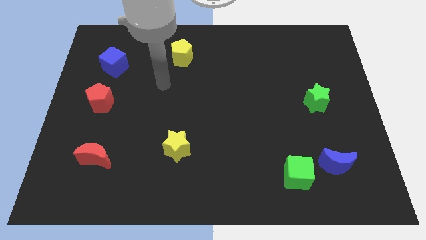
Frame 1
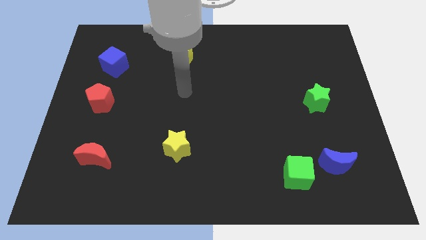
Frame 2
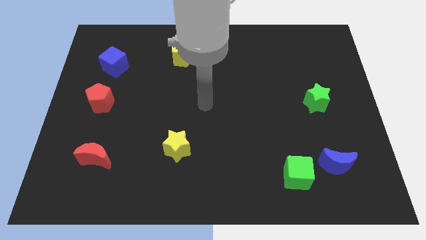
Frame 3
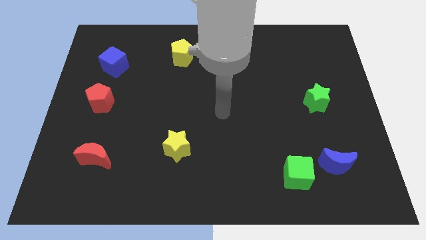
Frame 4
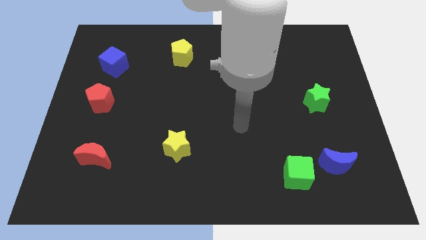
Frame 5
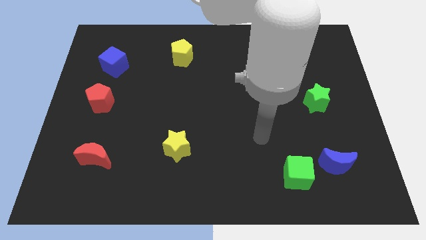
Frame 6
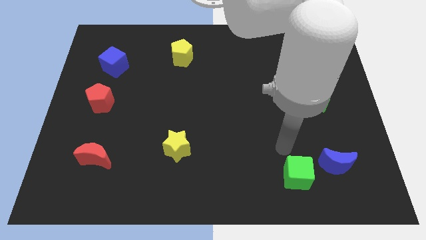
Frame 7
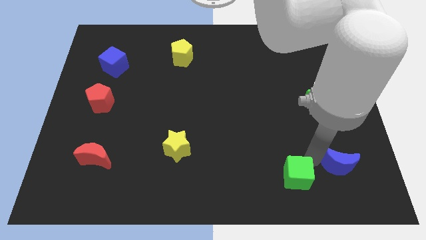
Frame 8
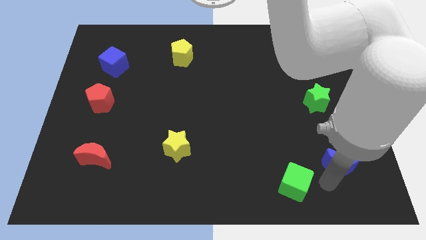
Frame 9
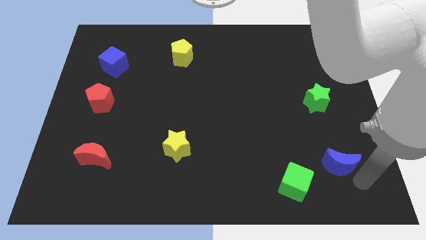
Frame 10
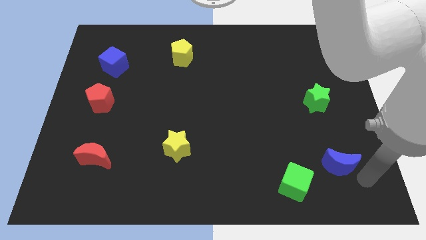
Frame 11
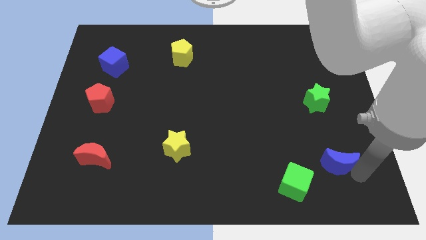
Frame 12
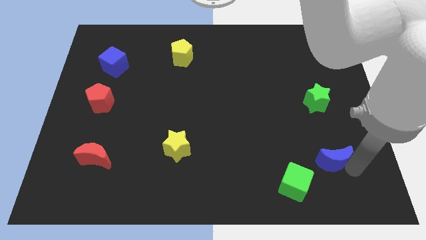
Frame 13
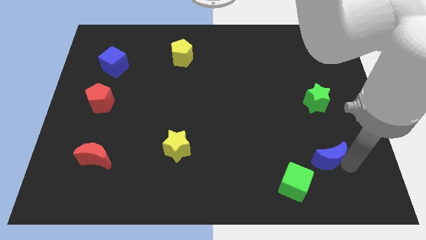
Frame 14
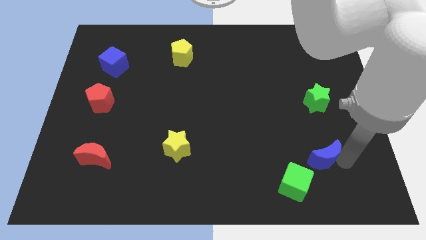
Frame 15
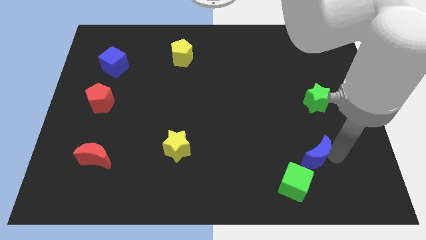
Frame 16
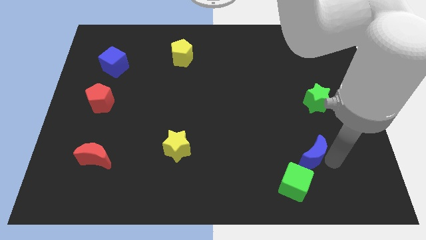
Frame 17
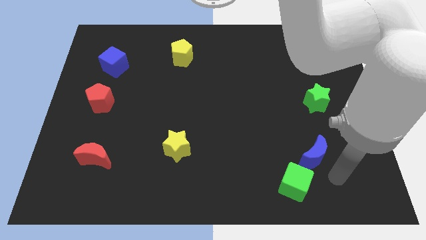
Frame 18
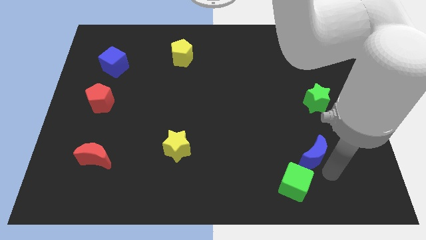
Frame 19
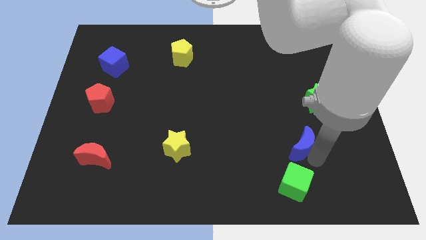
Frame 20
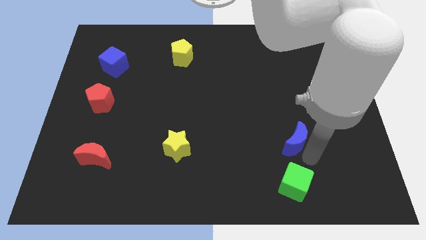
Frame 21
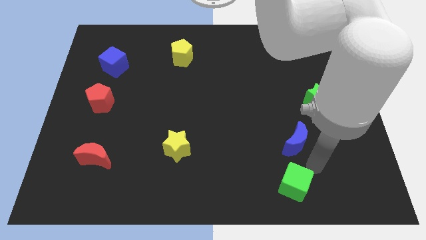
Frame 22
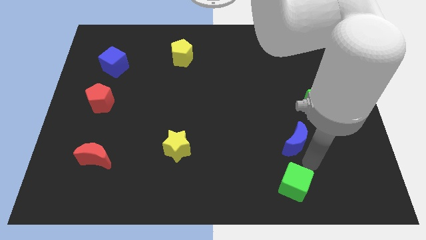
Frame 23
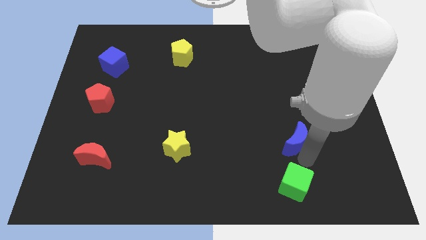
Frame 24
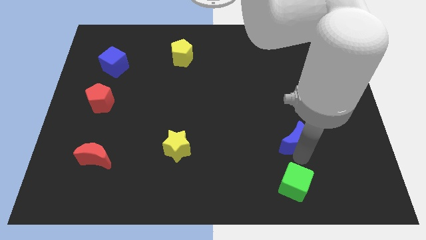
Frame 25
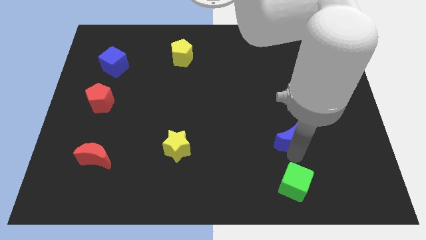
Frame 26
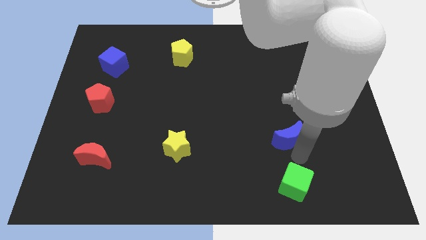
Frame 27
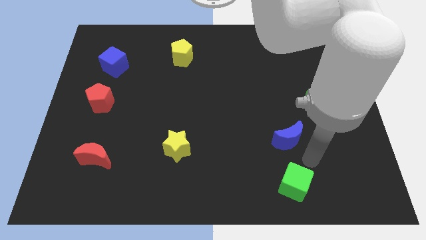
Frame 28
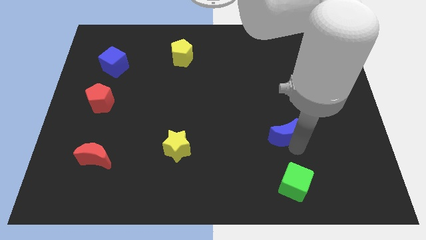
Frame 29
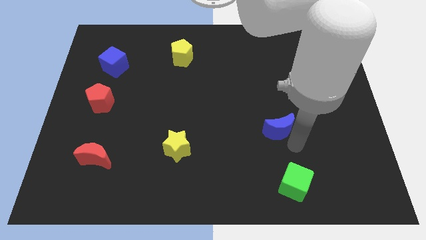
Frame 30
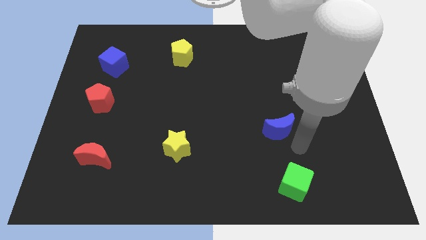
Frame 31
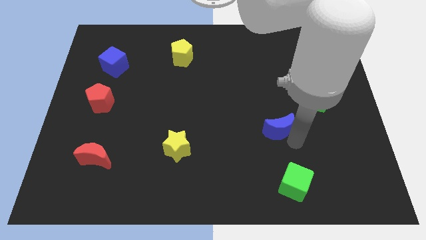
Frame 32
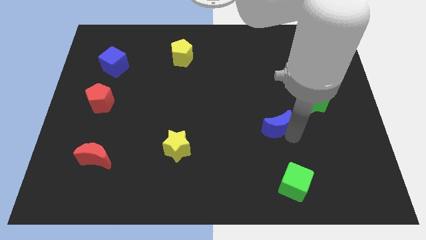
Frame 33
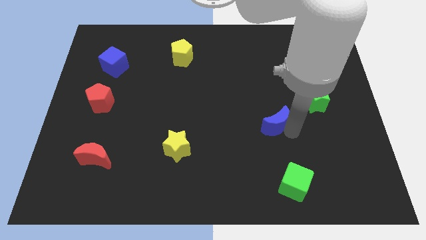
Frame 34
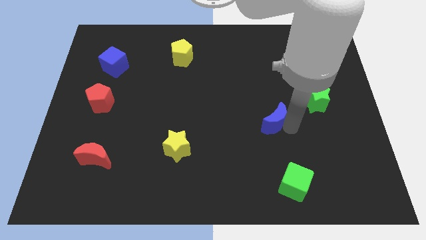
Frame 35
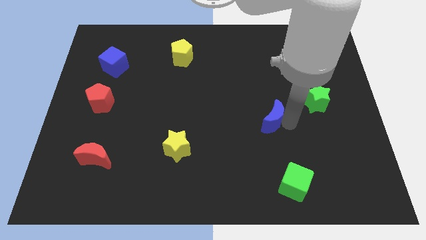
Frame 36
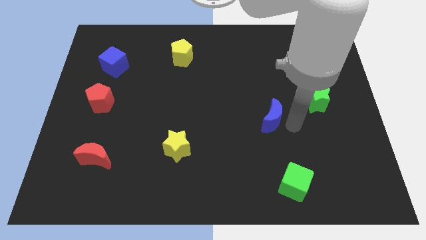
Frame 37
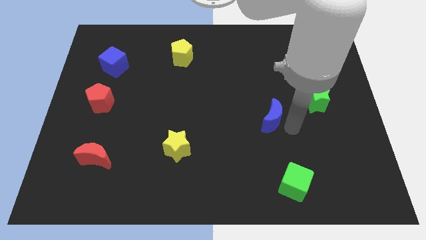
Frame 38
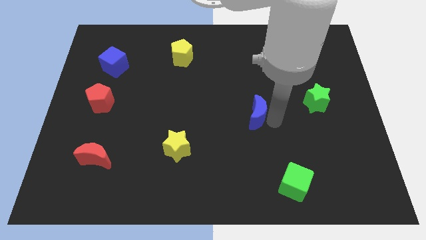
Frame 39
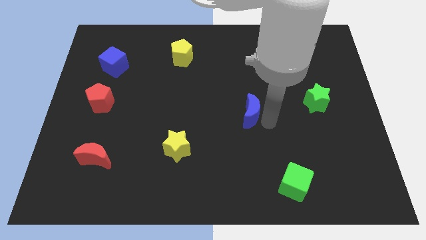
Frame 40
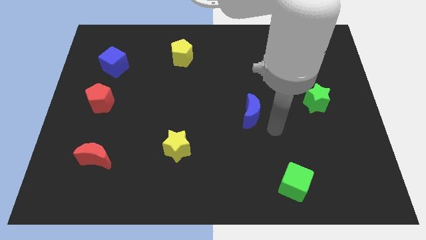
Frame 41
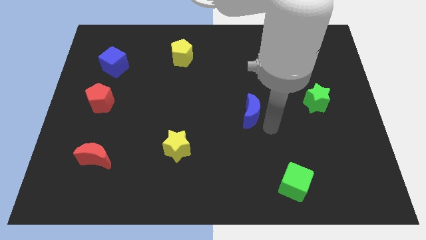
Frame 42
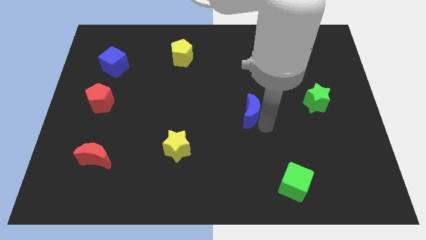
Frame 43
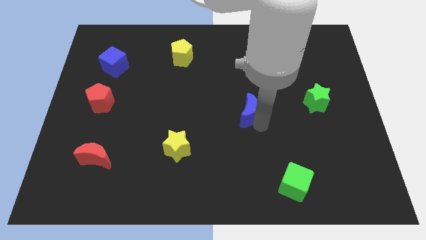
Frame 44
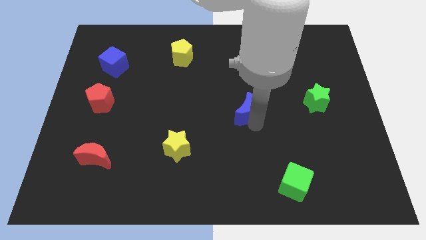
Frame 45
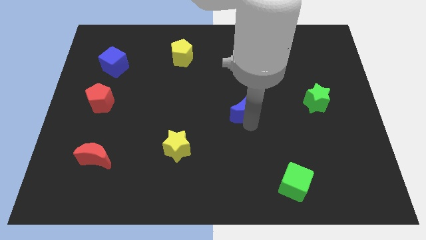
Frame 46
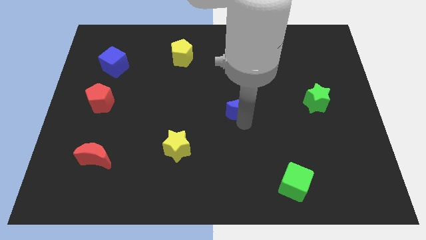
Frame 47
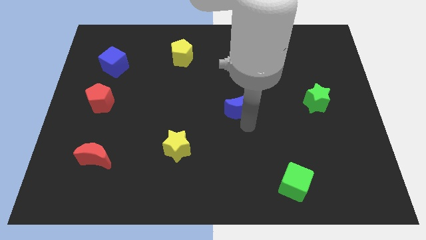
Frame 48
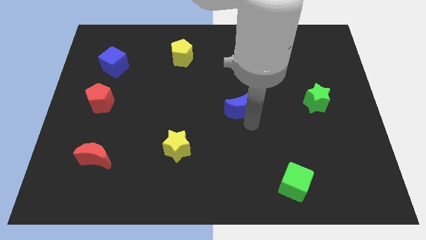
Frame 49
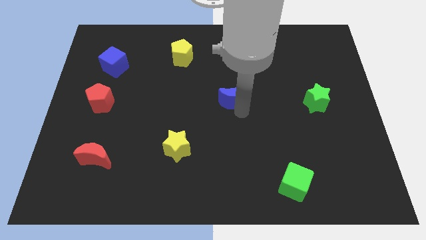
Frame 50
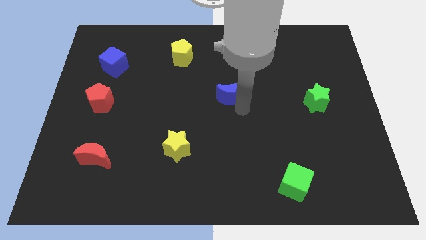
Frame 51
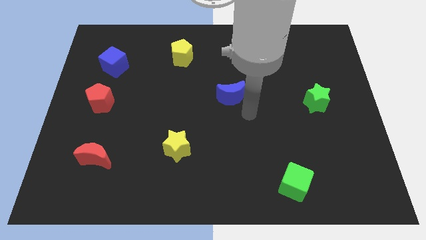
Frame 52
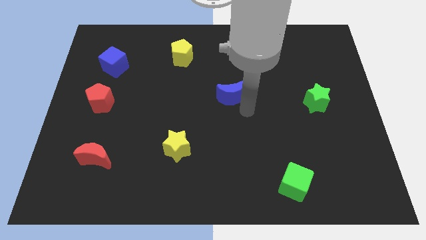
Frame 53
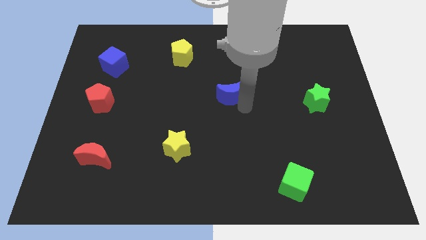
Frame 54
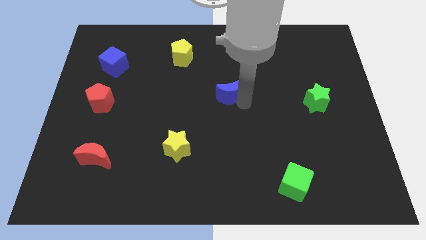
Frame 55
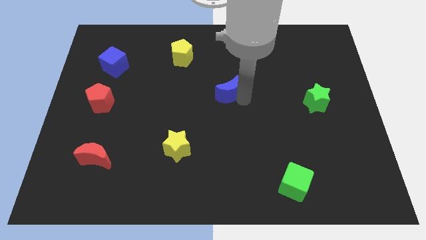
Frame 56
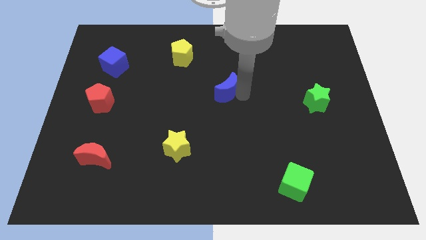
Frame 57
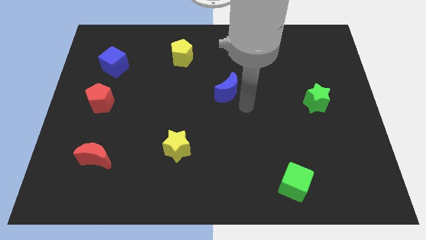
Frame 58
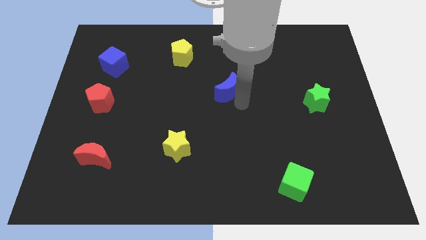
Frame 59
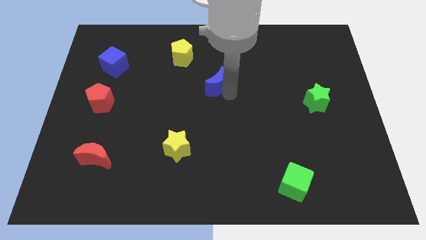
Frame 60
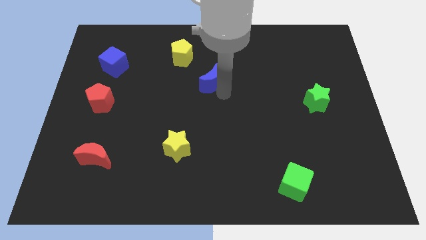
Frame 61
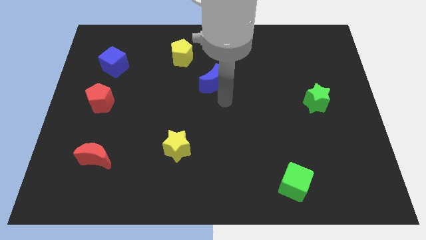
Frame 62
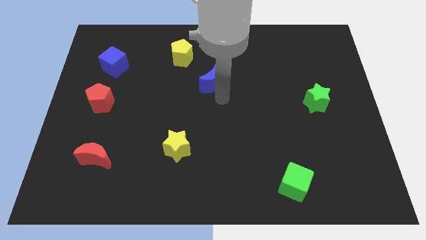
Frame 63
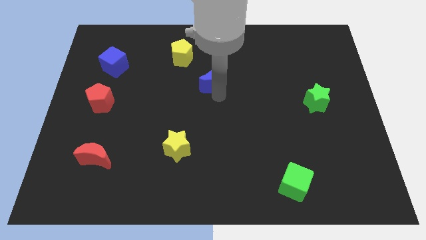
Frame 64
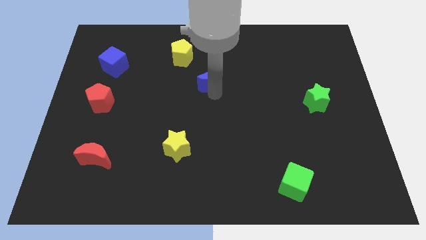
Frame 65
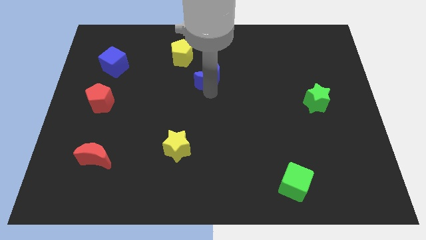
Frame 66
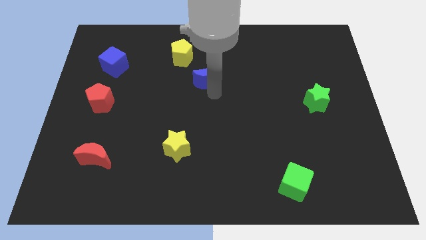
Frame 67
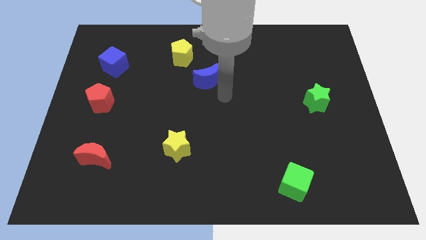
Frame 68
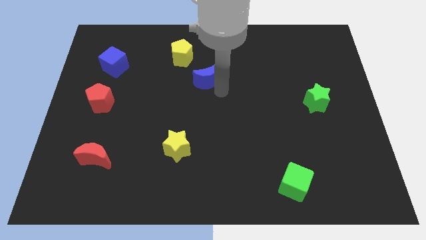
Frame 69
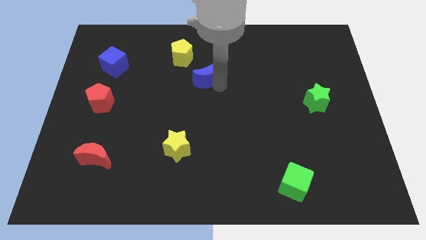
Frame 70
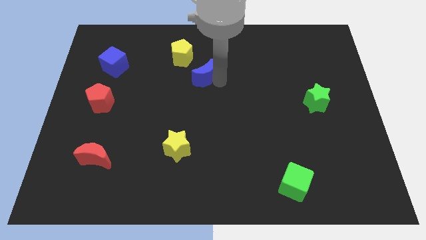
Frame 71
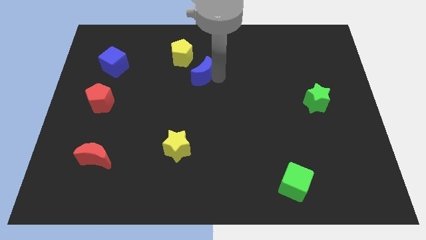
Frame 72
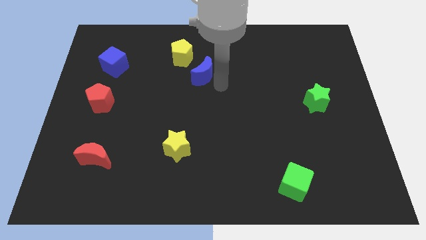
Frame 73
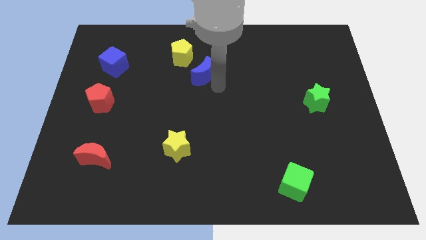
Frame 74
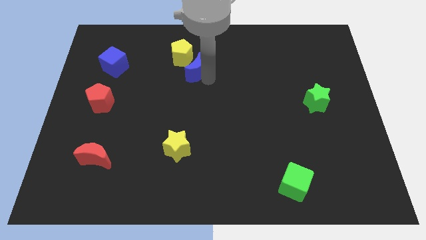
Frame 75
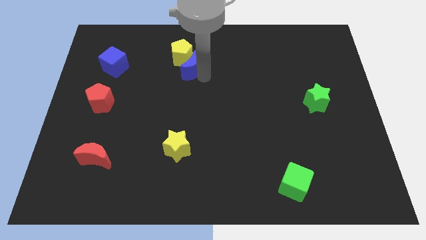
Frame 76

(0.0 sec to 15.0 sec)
slide the blue moon to the yellow pentagon
